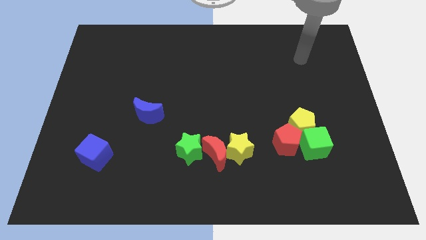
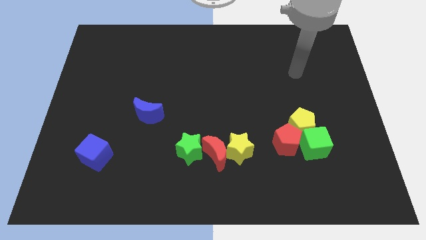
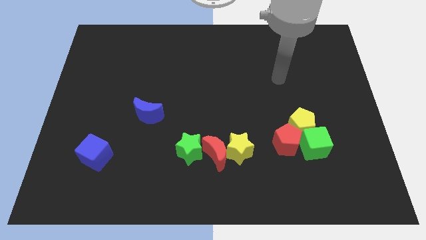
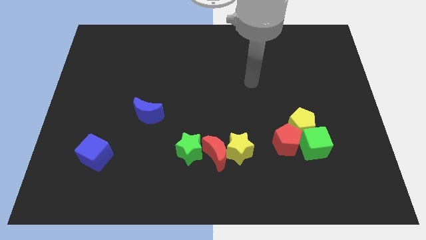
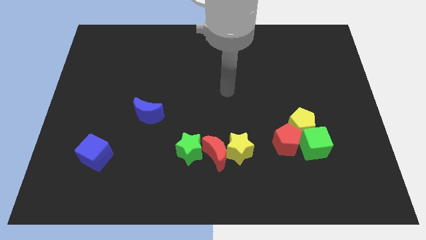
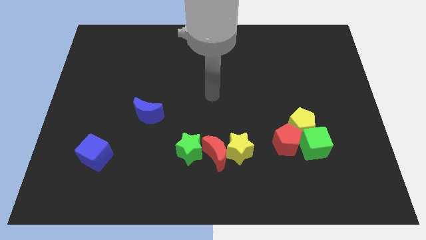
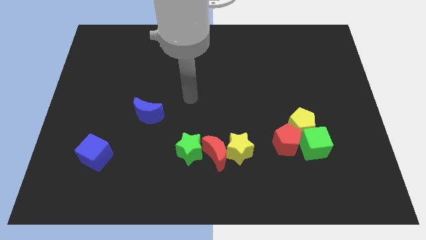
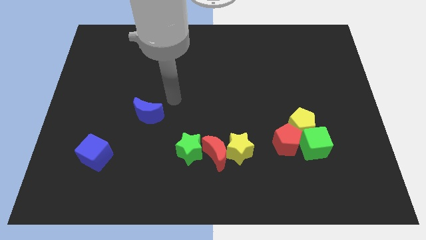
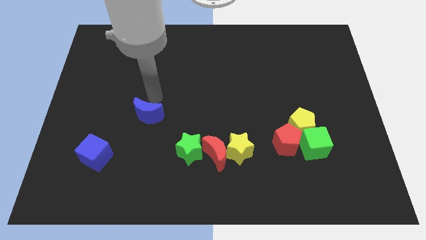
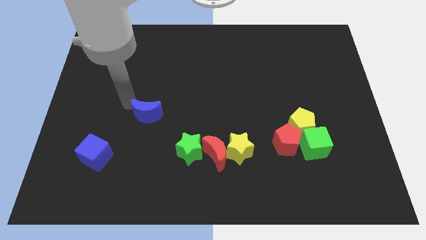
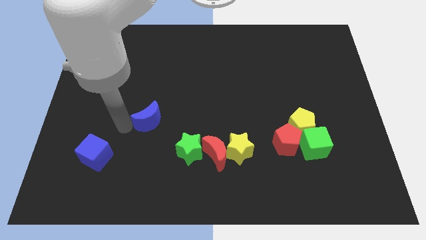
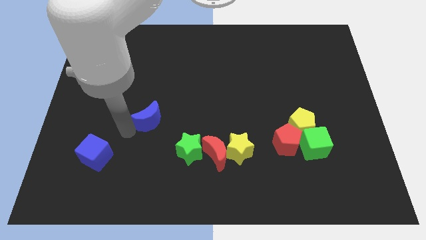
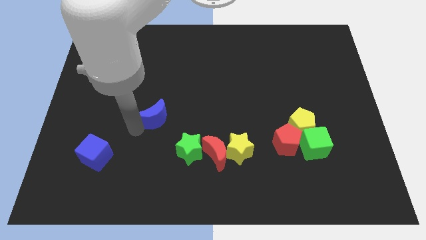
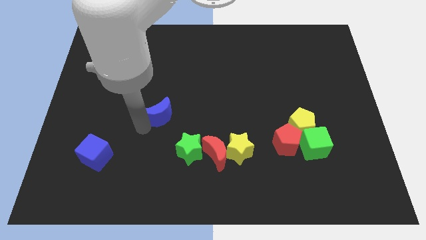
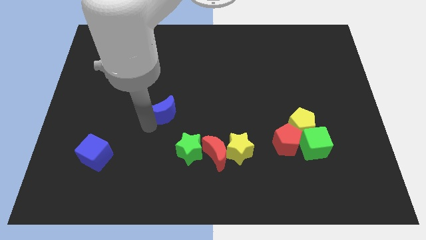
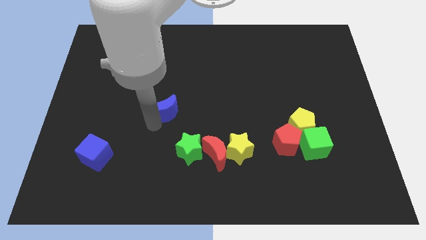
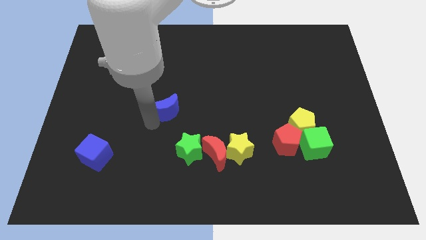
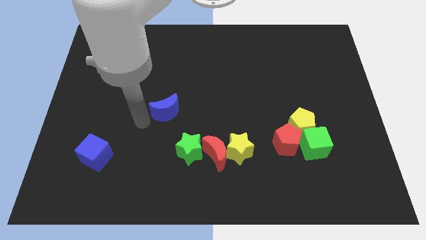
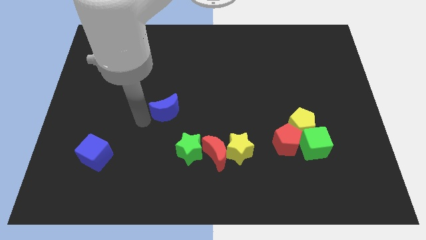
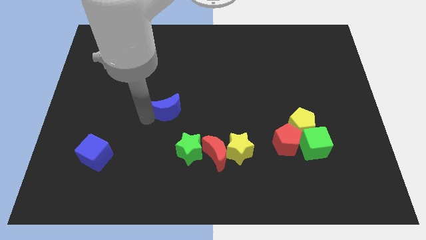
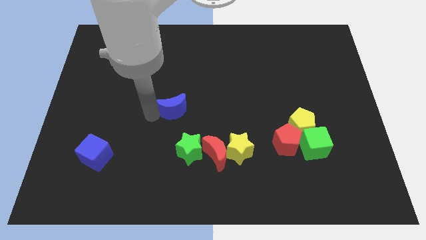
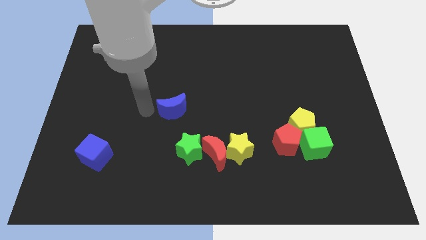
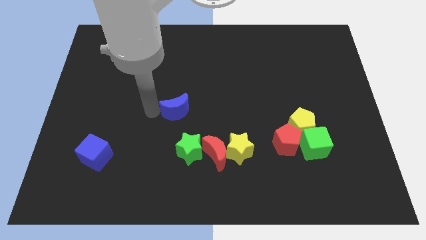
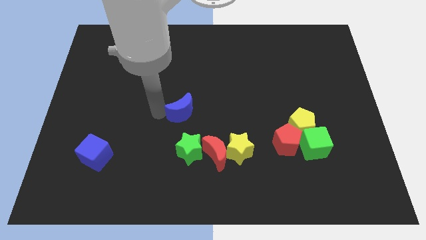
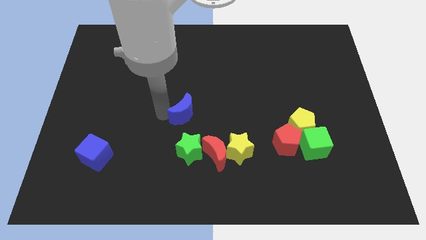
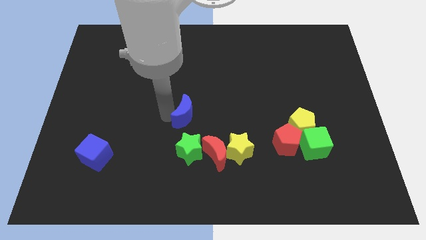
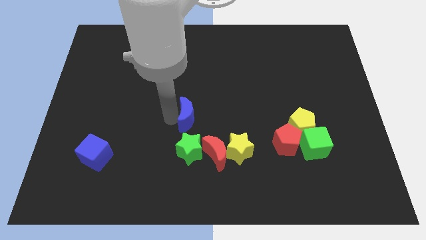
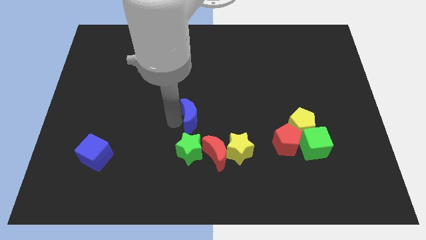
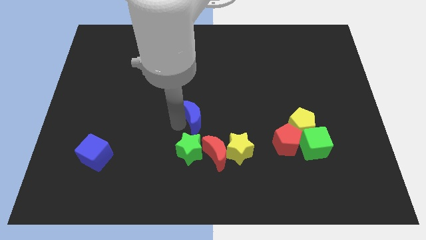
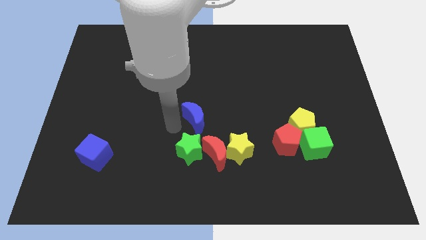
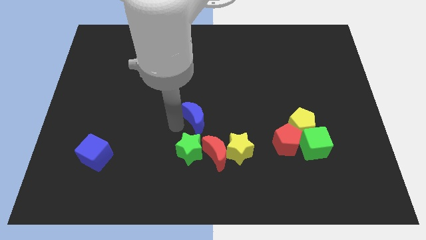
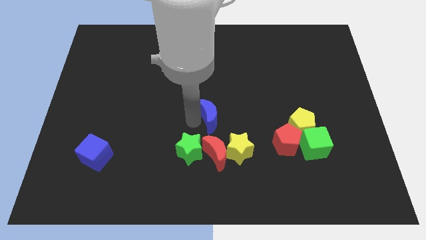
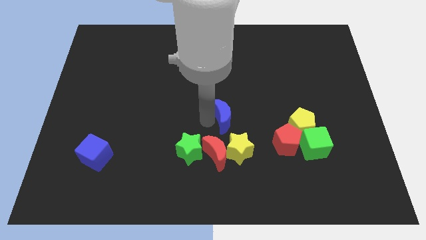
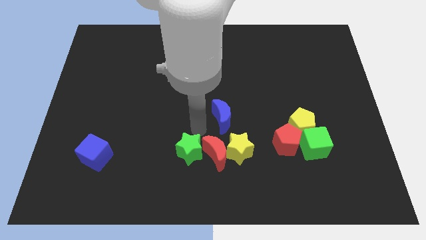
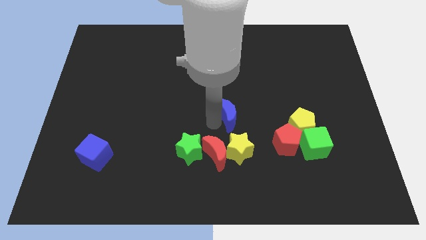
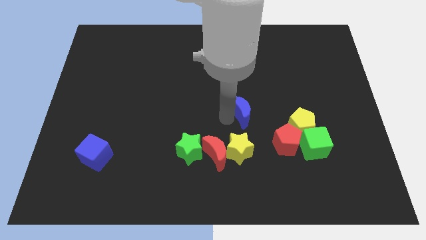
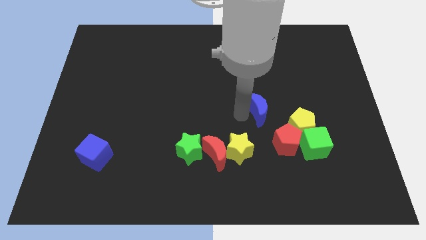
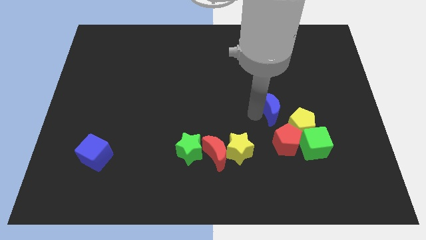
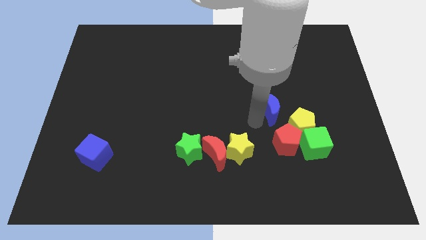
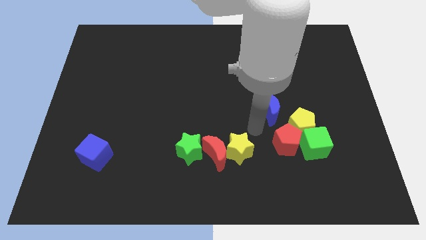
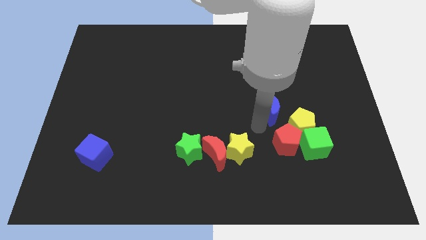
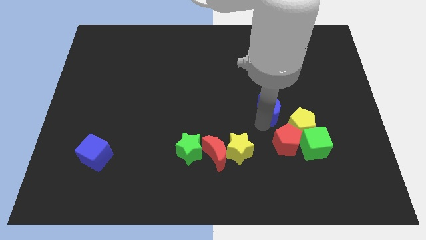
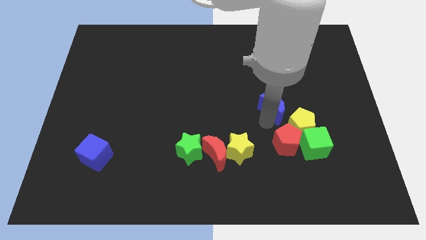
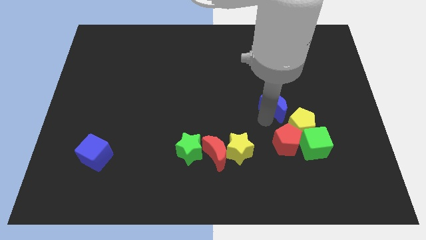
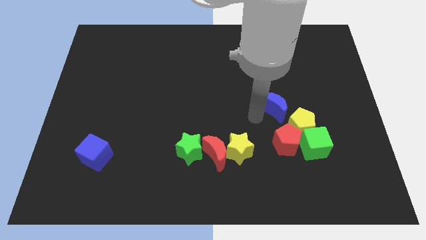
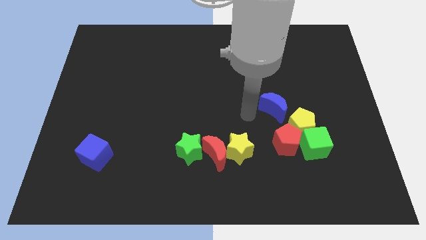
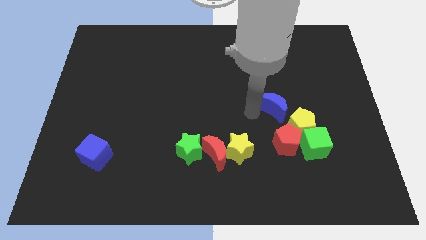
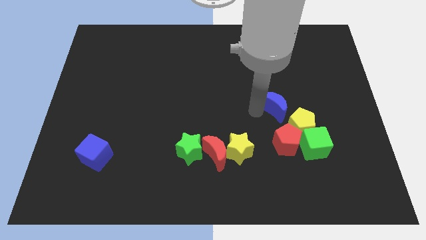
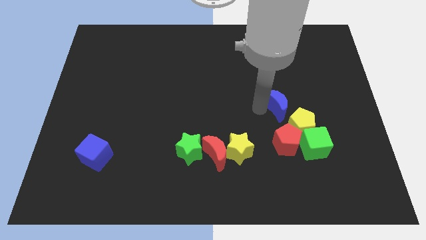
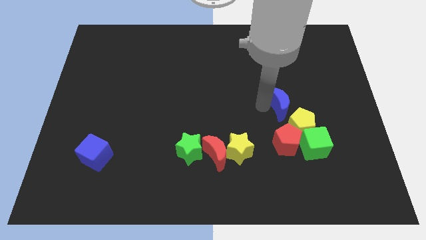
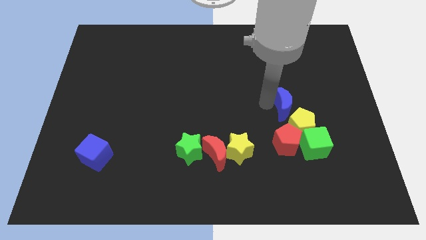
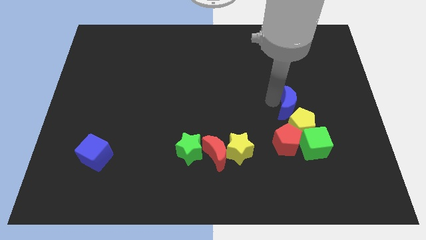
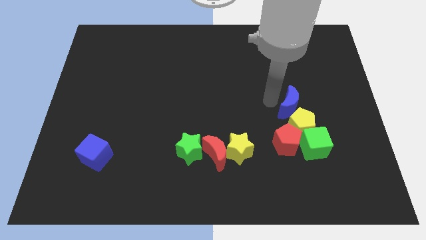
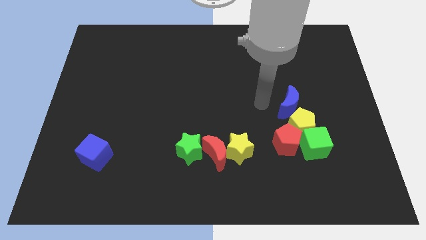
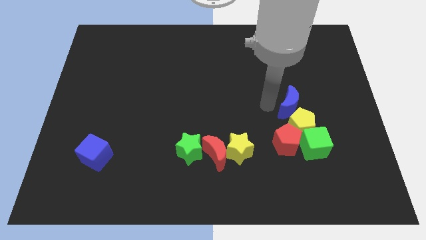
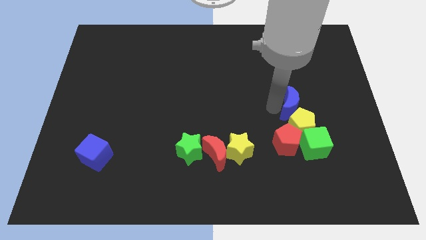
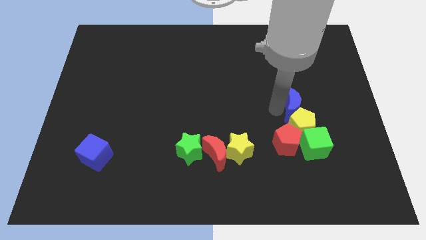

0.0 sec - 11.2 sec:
slide the blue moon diagonally up and to the right of the yellow pentagon

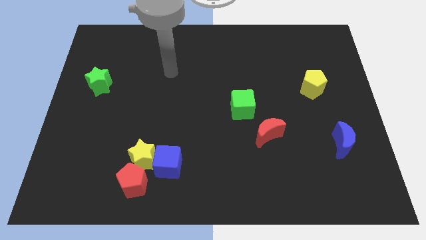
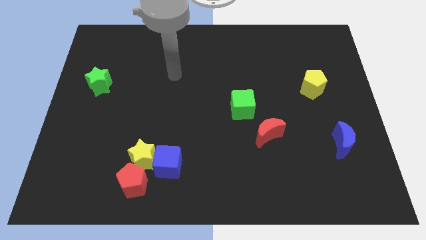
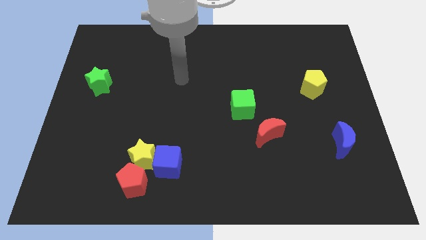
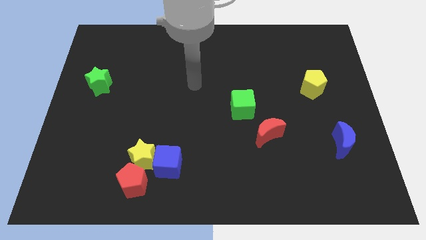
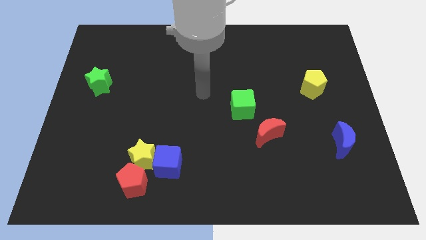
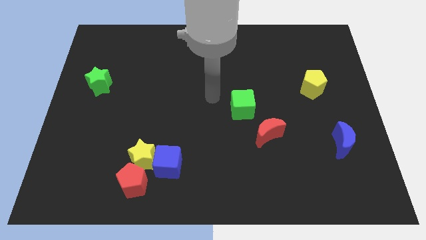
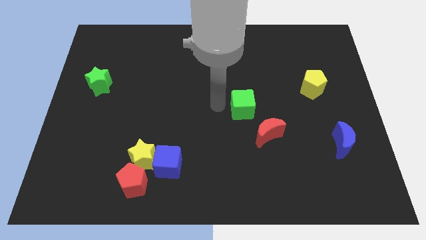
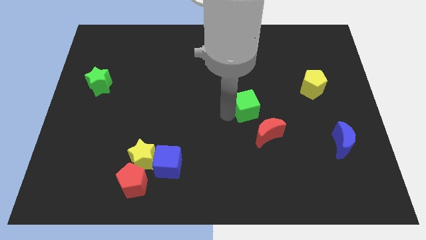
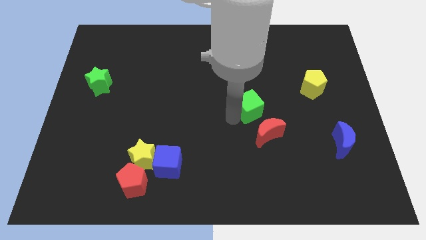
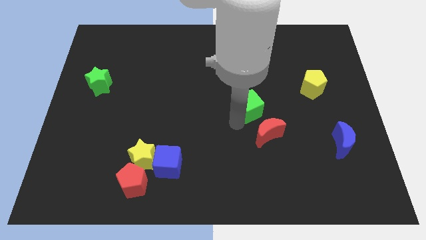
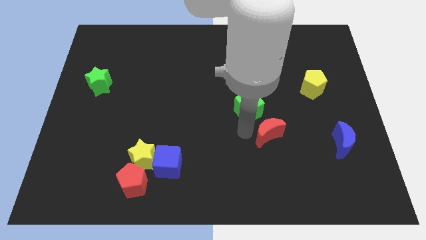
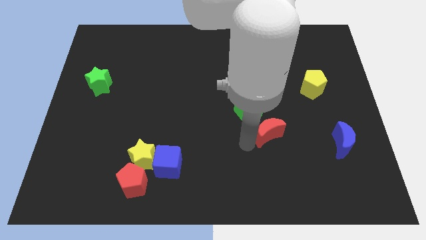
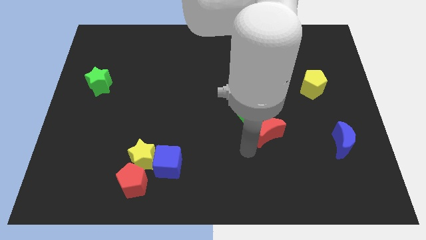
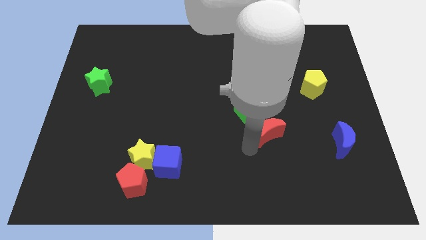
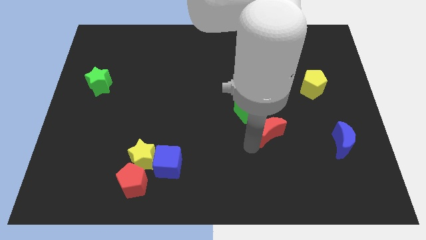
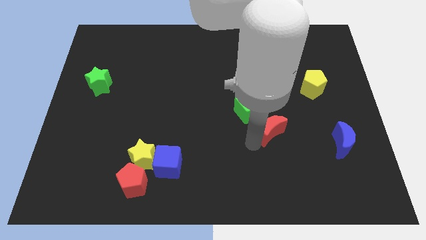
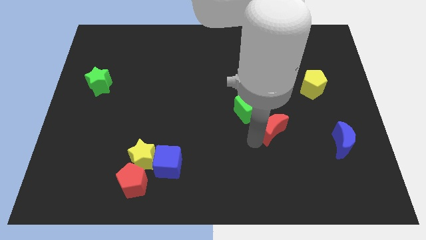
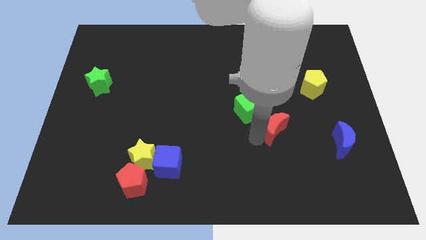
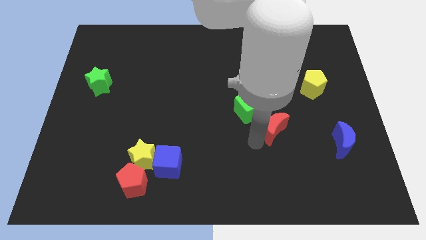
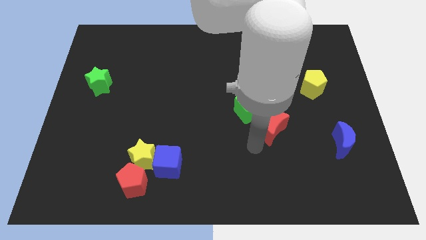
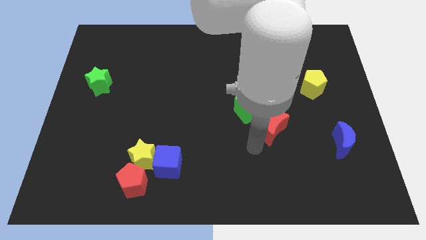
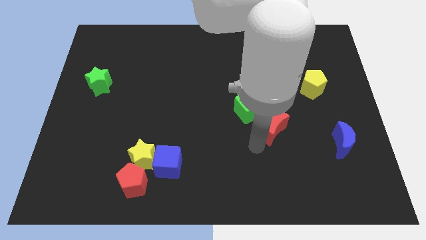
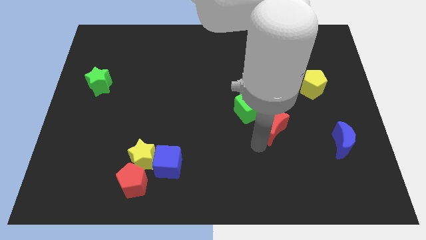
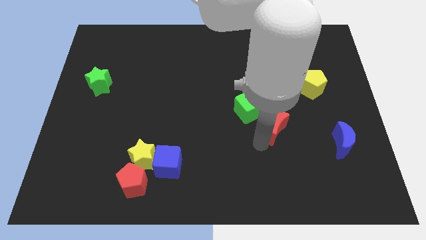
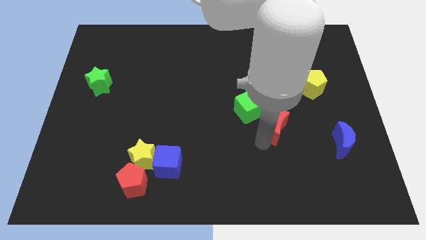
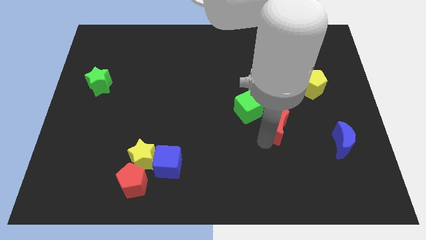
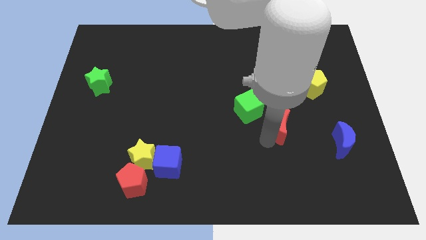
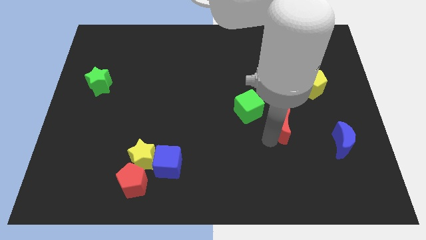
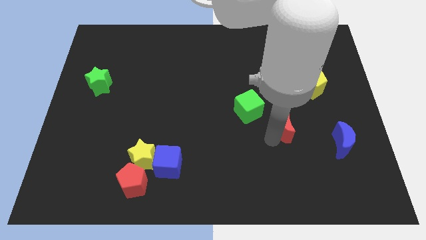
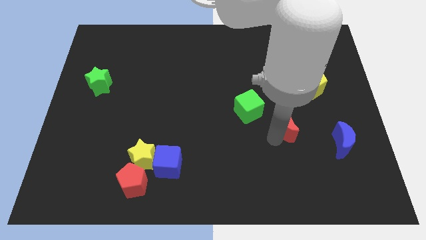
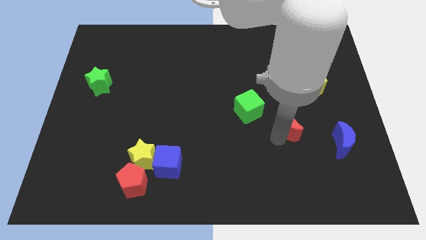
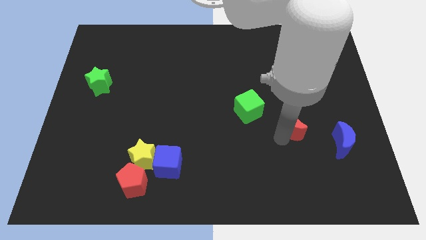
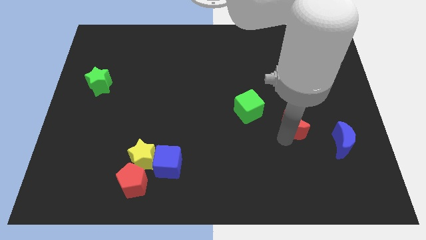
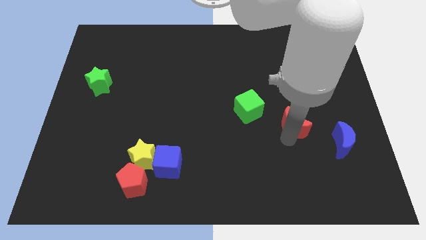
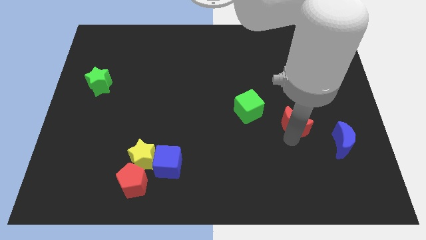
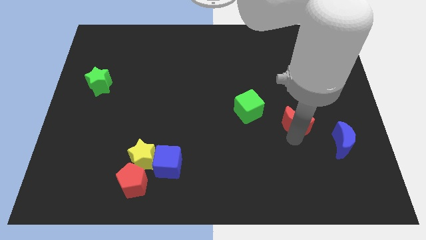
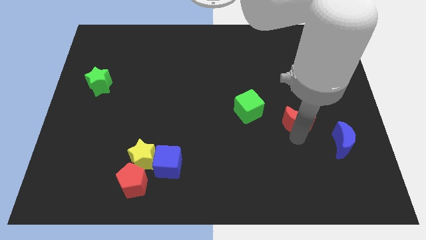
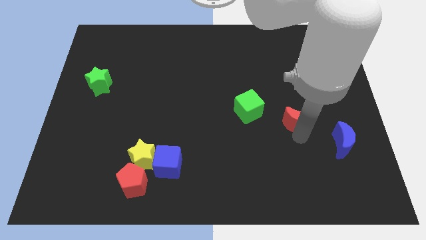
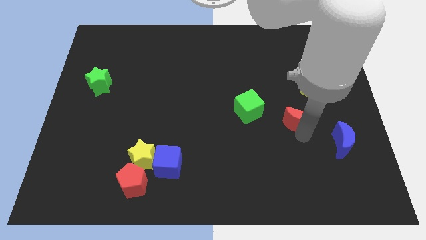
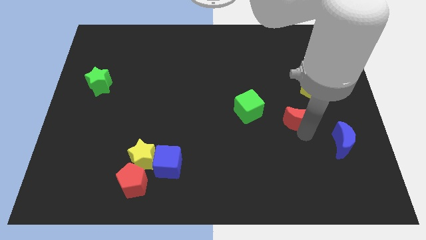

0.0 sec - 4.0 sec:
put the red moon diagonally down and to the left of the yellow pentagon
